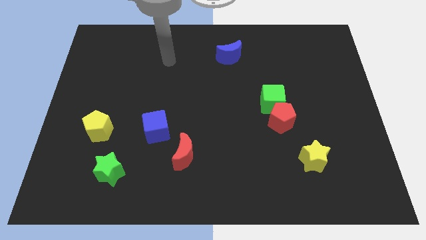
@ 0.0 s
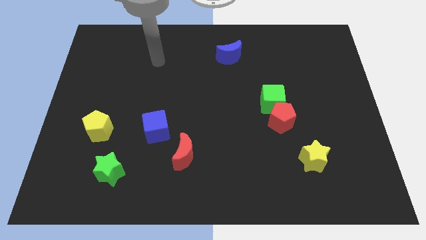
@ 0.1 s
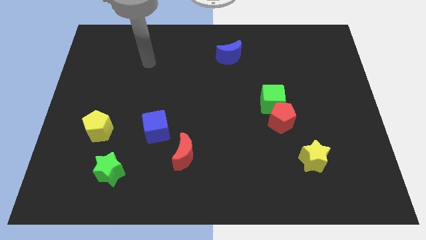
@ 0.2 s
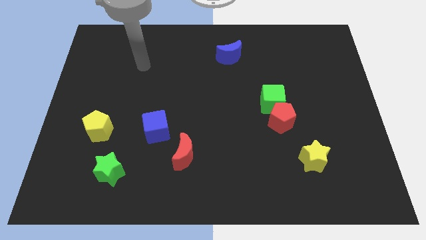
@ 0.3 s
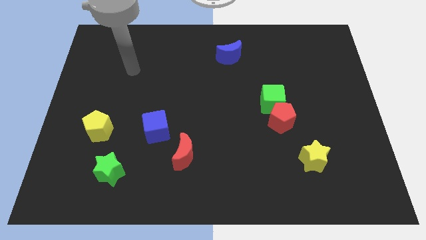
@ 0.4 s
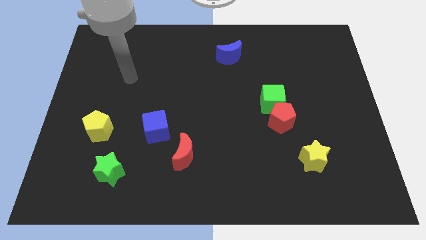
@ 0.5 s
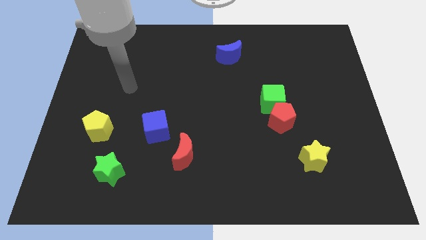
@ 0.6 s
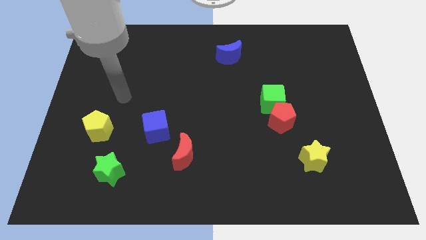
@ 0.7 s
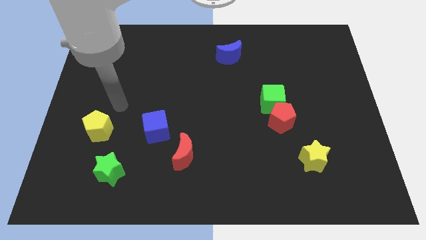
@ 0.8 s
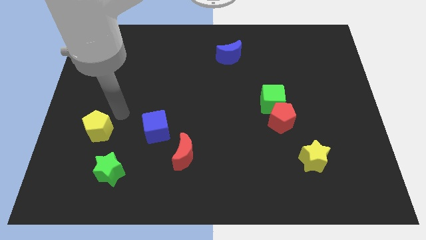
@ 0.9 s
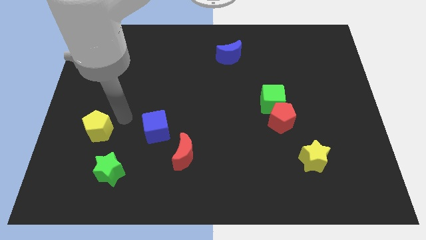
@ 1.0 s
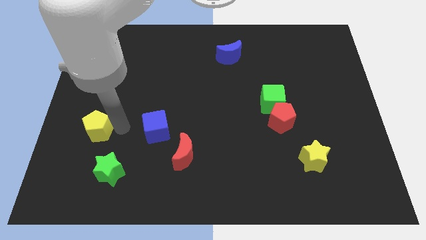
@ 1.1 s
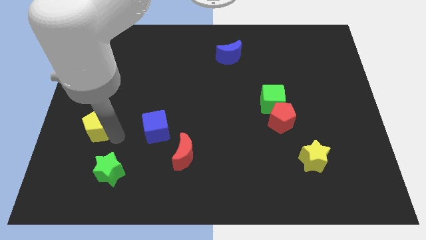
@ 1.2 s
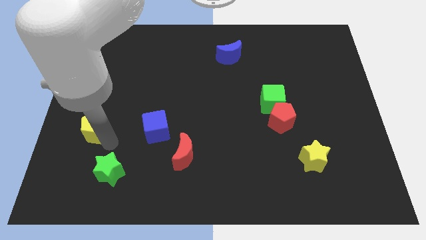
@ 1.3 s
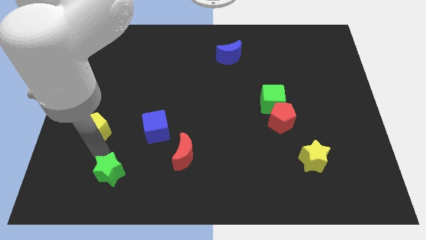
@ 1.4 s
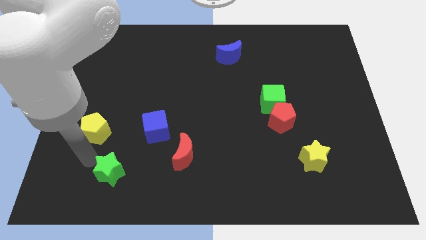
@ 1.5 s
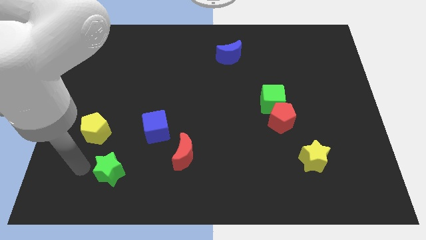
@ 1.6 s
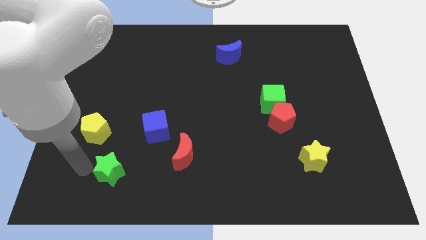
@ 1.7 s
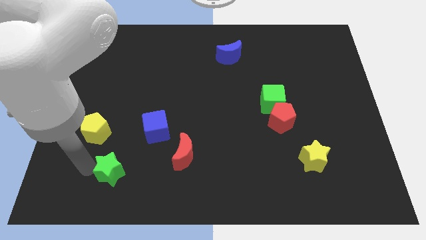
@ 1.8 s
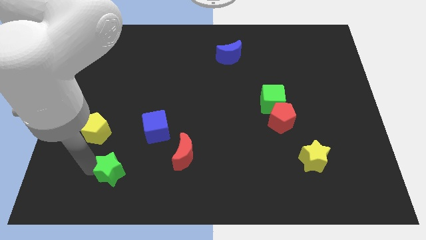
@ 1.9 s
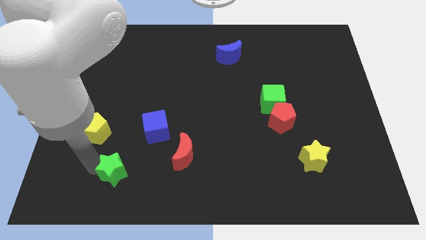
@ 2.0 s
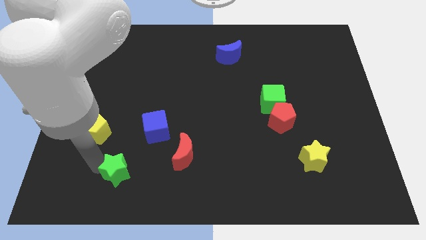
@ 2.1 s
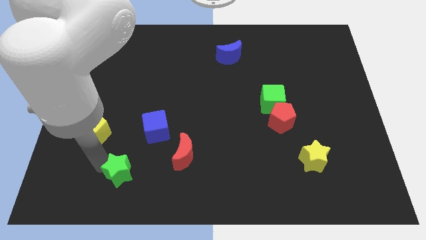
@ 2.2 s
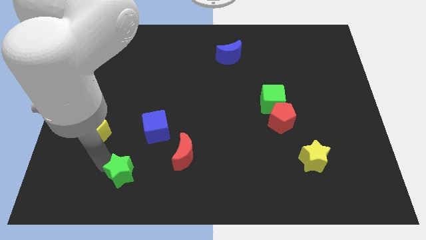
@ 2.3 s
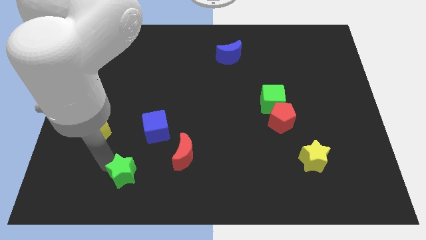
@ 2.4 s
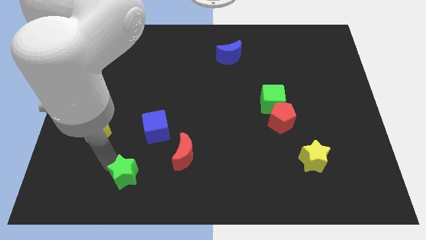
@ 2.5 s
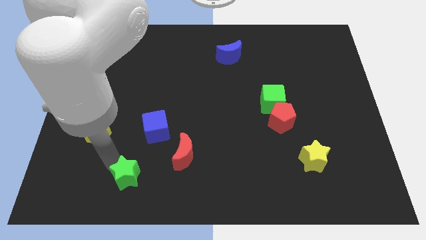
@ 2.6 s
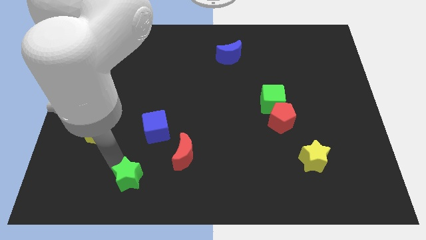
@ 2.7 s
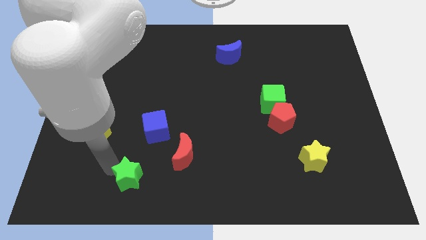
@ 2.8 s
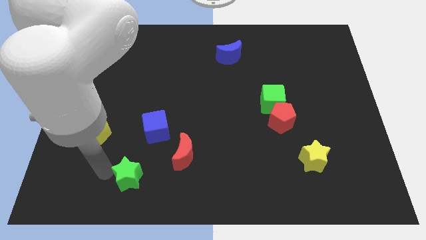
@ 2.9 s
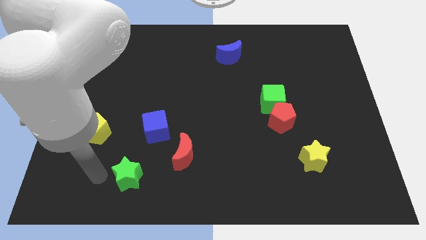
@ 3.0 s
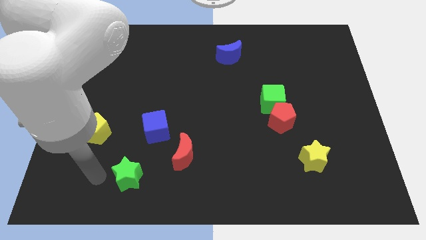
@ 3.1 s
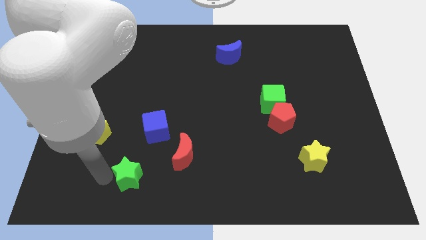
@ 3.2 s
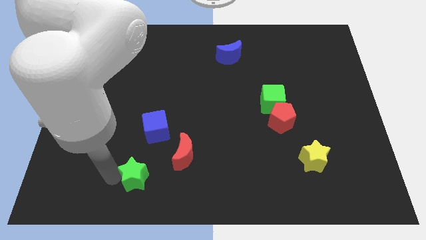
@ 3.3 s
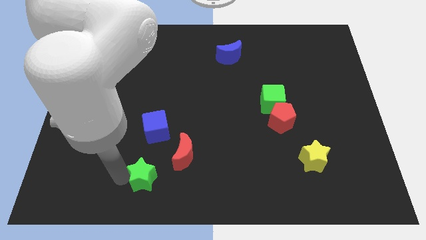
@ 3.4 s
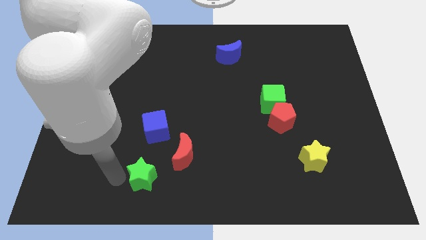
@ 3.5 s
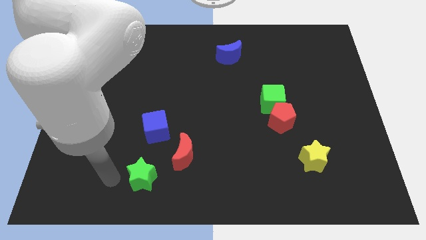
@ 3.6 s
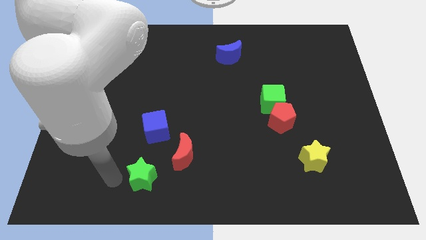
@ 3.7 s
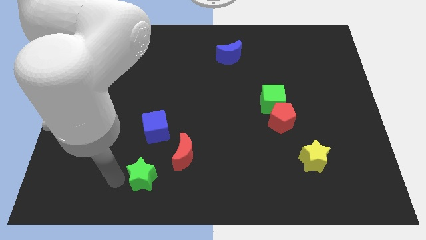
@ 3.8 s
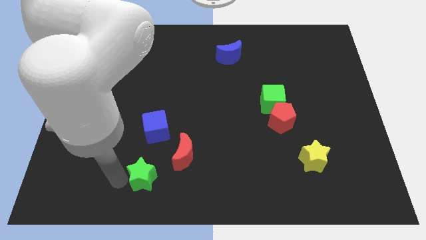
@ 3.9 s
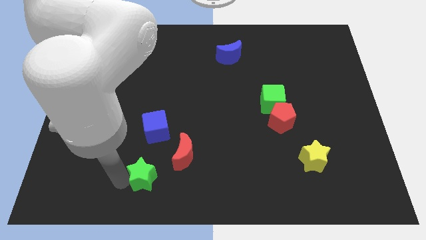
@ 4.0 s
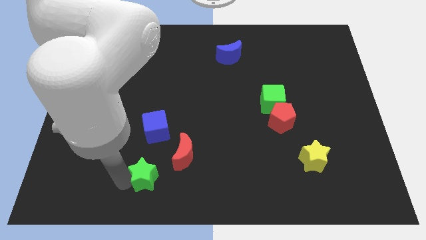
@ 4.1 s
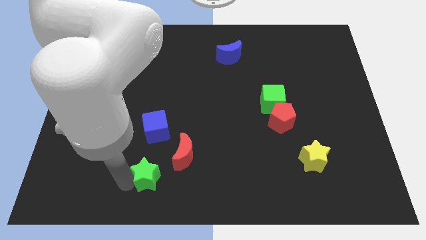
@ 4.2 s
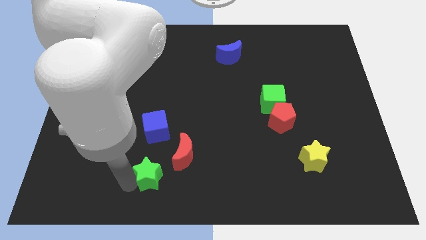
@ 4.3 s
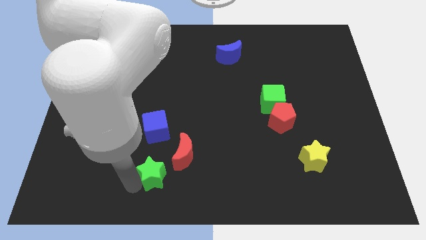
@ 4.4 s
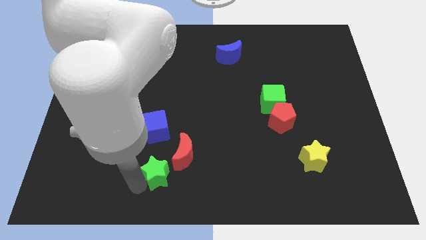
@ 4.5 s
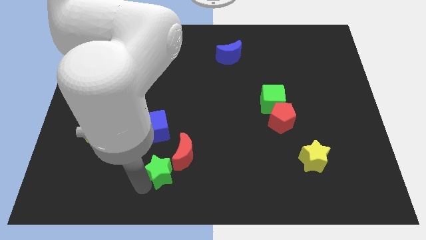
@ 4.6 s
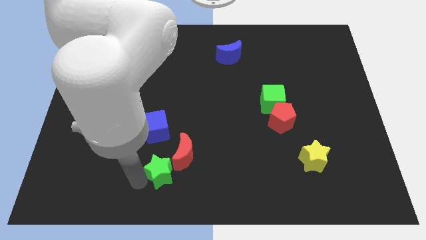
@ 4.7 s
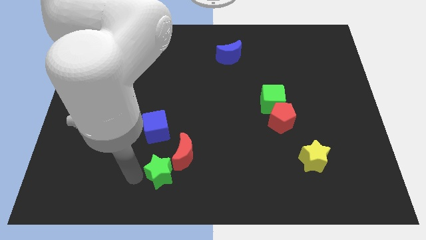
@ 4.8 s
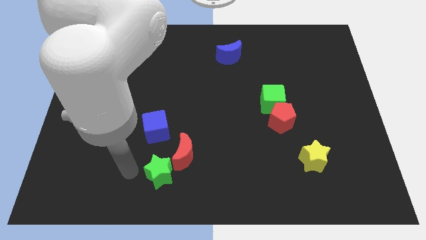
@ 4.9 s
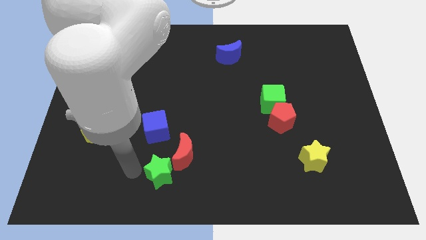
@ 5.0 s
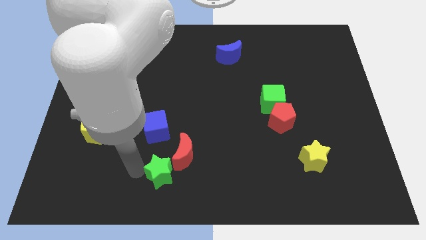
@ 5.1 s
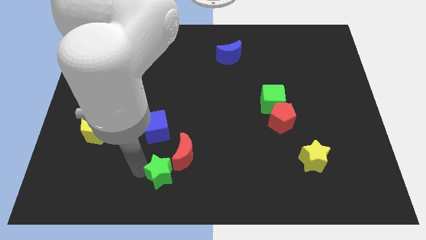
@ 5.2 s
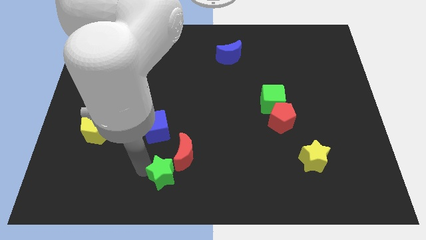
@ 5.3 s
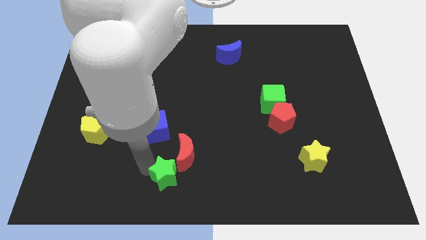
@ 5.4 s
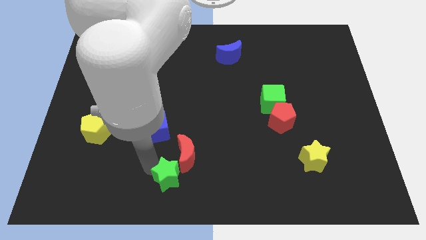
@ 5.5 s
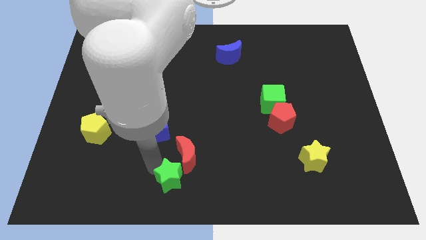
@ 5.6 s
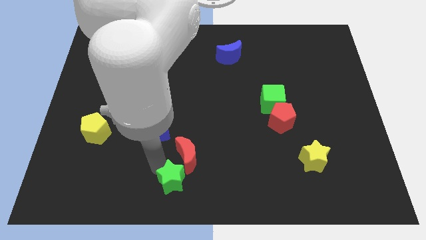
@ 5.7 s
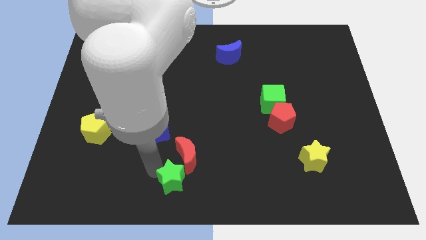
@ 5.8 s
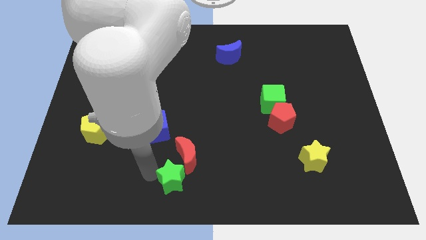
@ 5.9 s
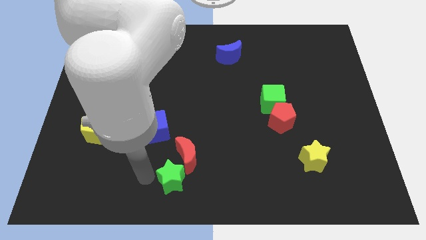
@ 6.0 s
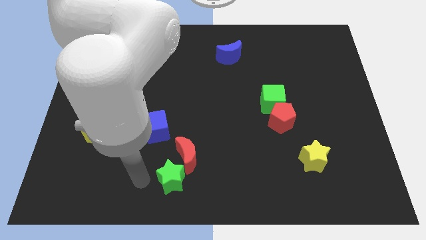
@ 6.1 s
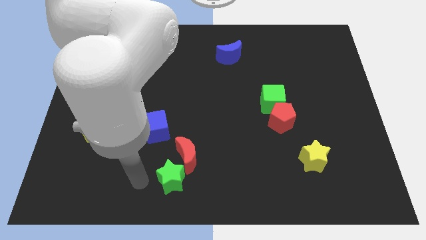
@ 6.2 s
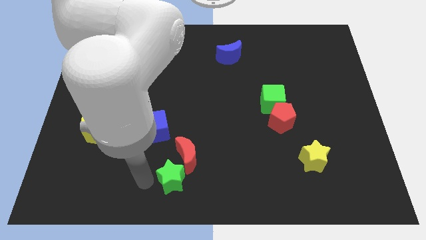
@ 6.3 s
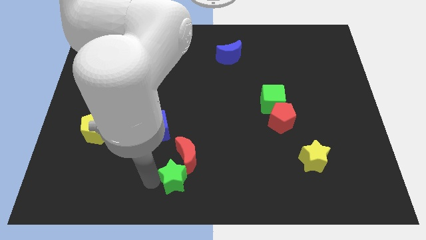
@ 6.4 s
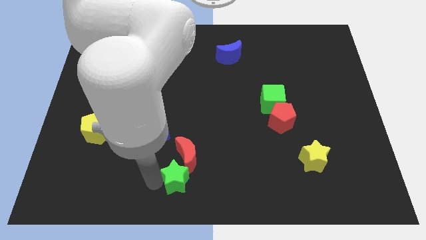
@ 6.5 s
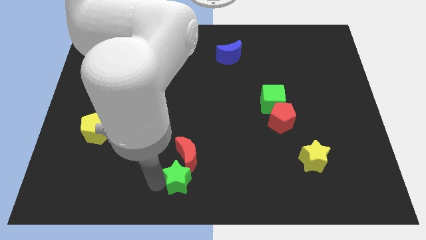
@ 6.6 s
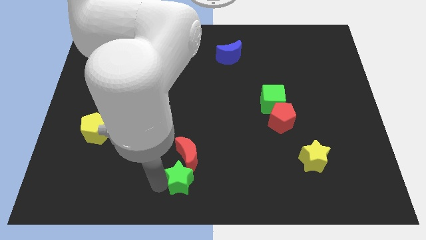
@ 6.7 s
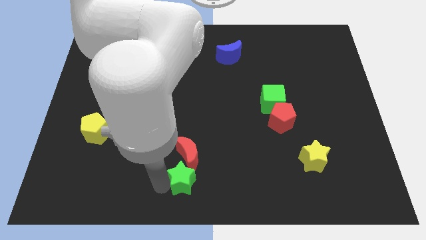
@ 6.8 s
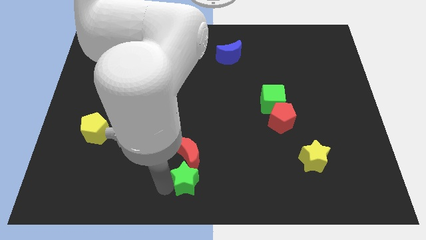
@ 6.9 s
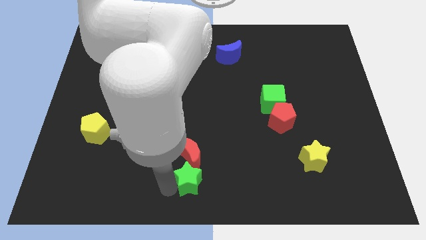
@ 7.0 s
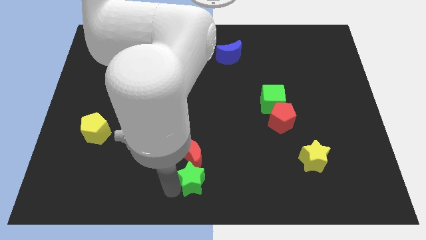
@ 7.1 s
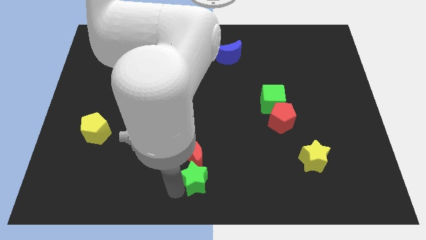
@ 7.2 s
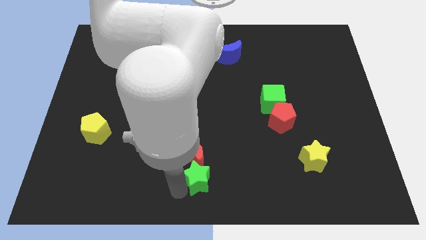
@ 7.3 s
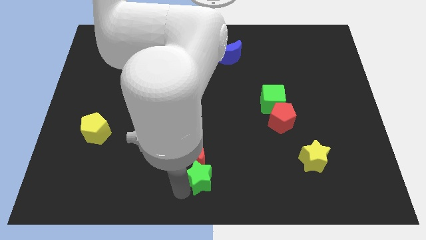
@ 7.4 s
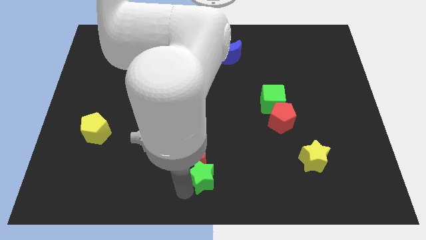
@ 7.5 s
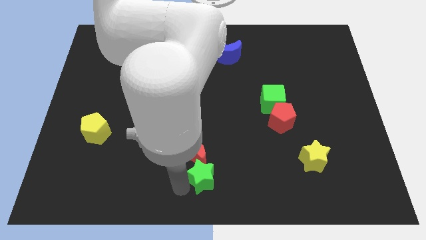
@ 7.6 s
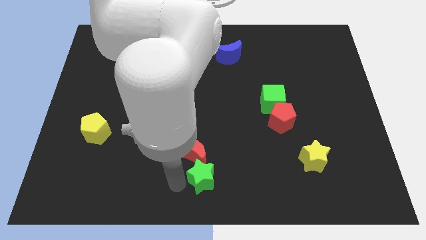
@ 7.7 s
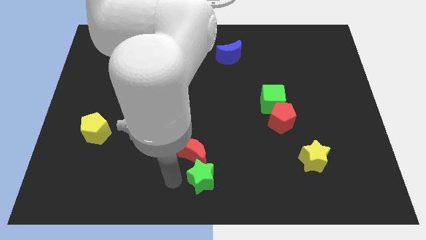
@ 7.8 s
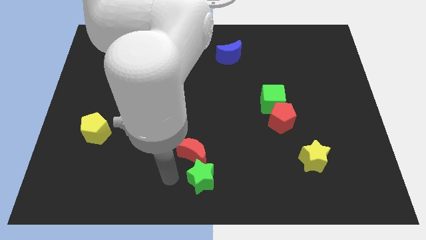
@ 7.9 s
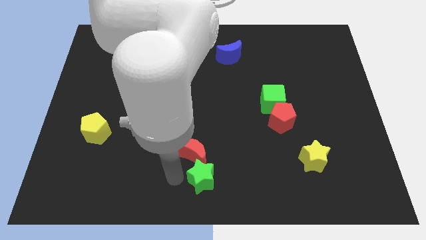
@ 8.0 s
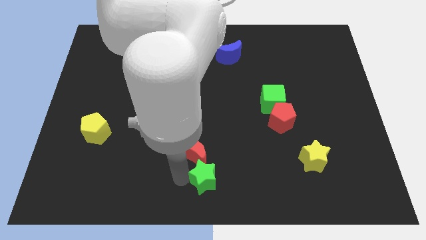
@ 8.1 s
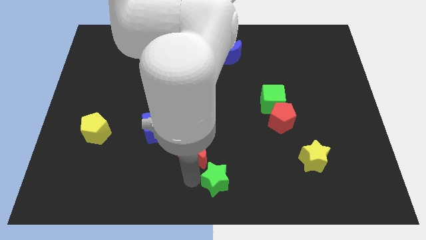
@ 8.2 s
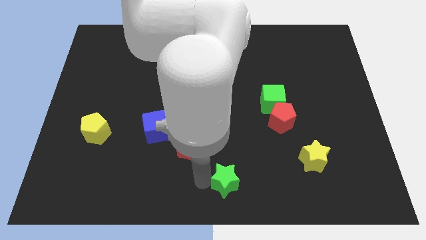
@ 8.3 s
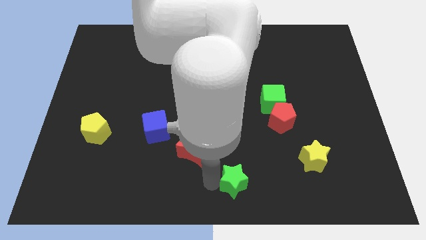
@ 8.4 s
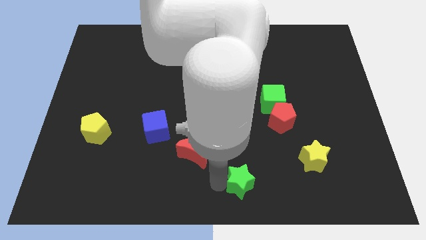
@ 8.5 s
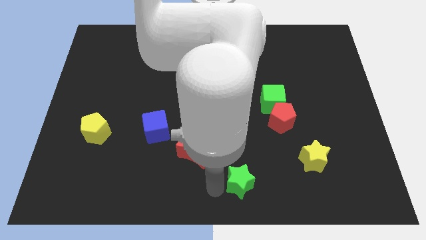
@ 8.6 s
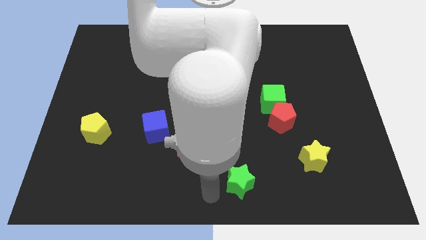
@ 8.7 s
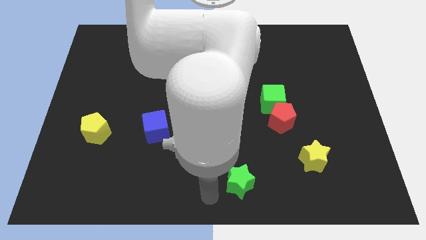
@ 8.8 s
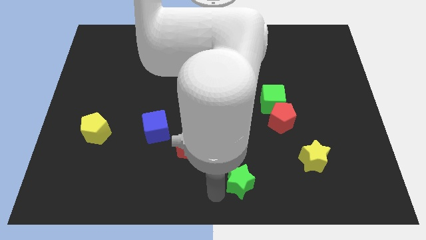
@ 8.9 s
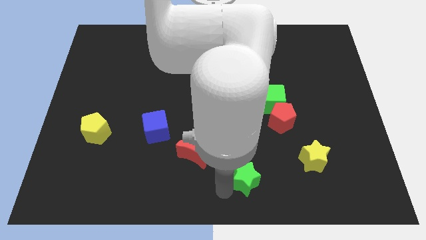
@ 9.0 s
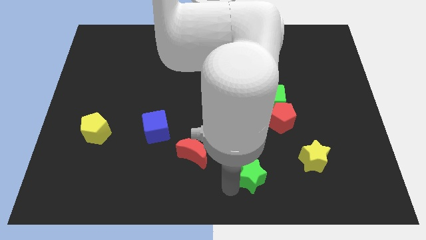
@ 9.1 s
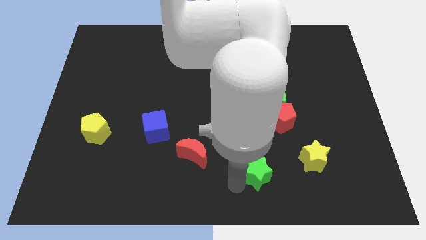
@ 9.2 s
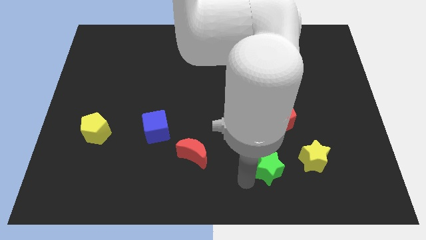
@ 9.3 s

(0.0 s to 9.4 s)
slide the green star to the bottom side of the red pentagon
